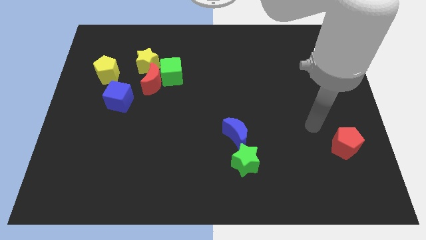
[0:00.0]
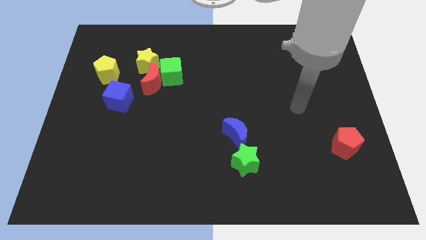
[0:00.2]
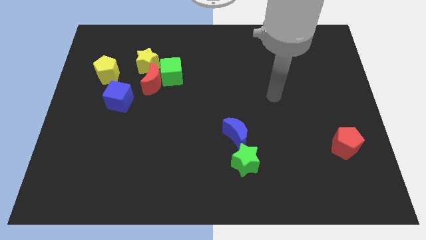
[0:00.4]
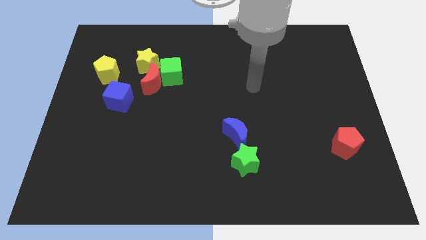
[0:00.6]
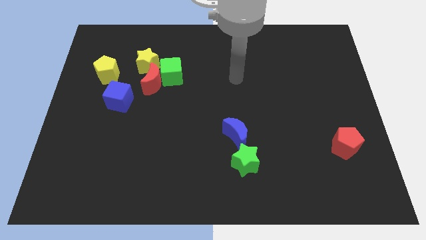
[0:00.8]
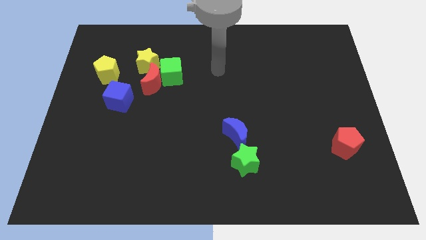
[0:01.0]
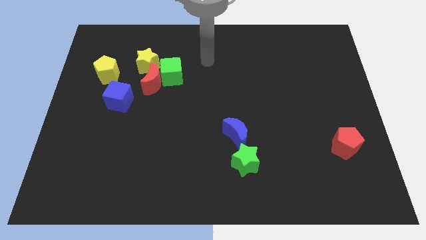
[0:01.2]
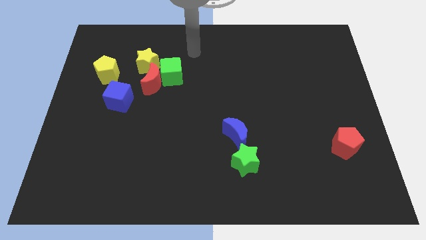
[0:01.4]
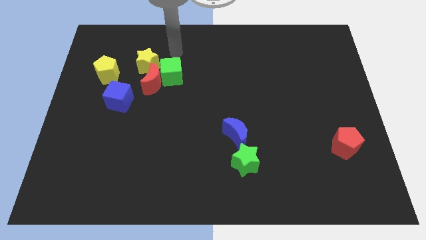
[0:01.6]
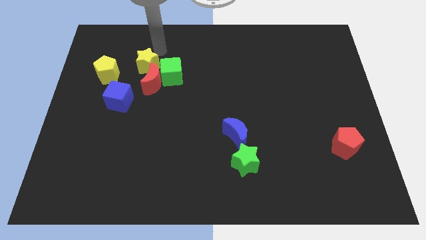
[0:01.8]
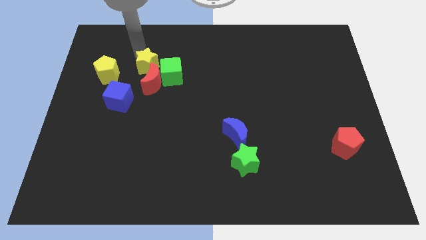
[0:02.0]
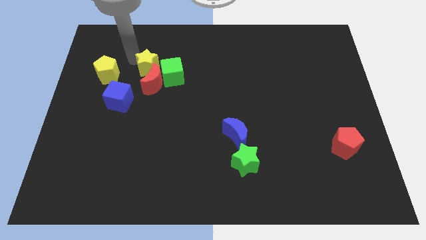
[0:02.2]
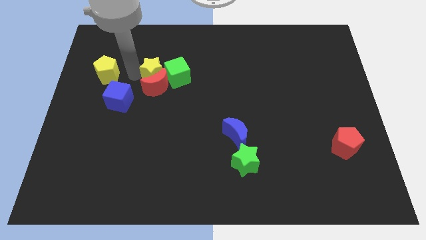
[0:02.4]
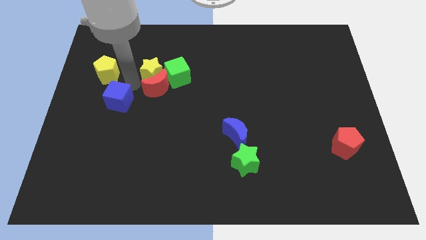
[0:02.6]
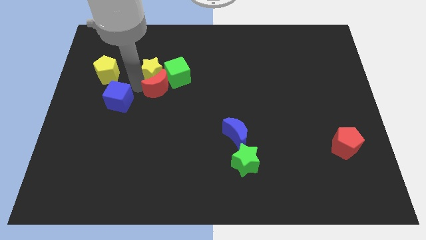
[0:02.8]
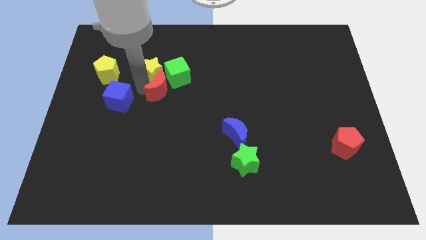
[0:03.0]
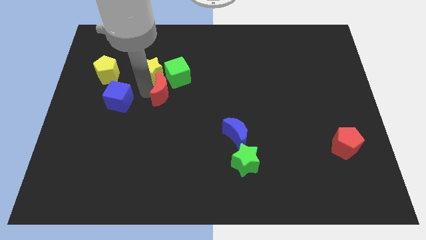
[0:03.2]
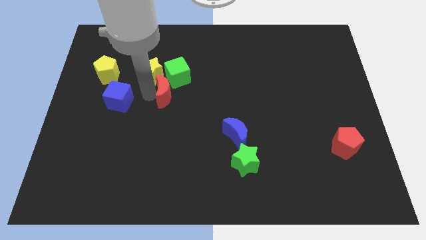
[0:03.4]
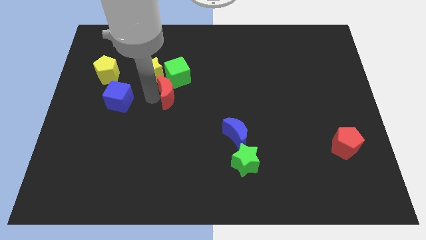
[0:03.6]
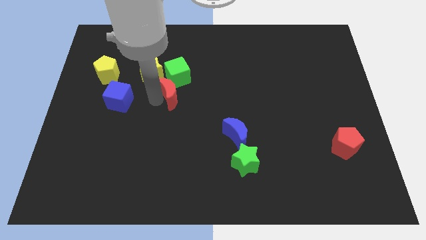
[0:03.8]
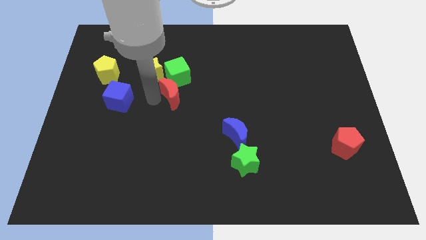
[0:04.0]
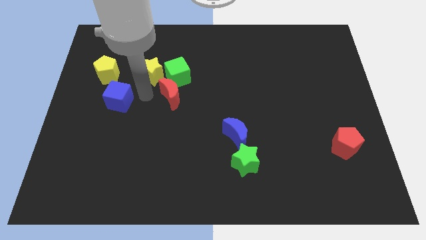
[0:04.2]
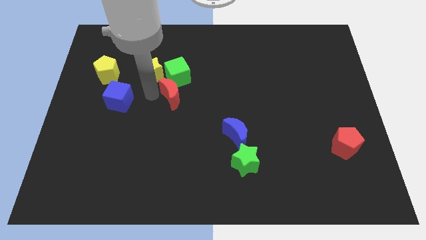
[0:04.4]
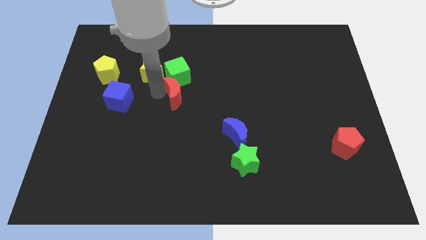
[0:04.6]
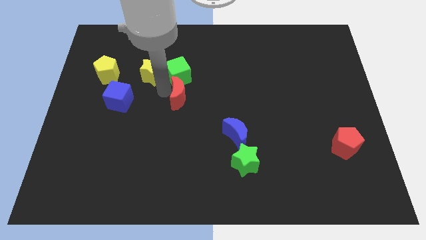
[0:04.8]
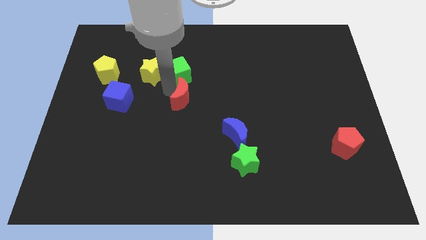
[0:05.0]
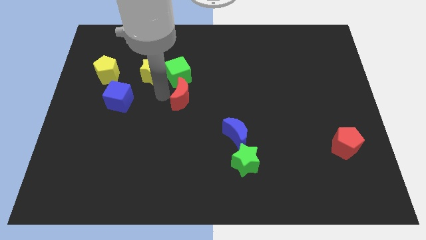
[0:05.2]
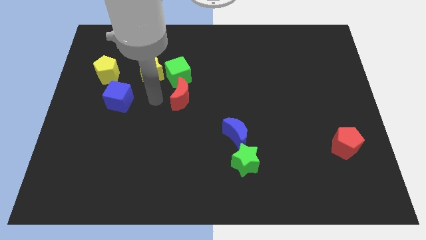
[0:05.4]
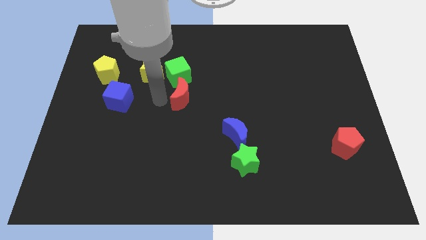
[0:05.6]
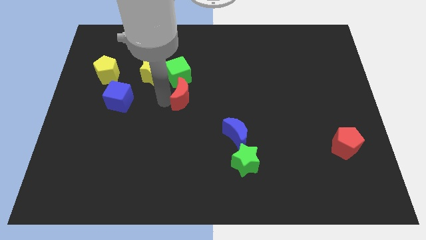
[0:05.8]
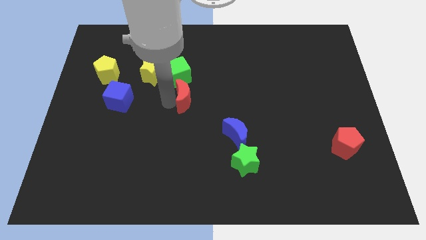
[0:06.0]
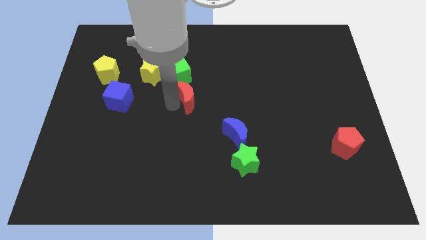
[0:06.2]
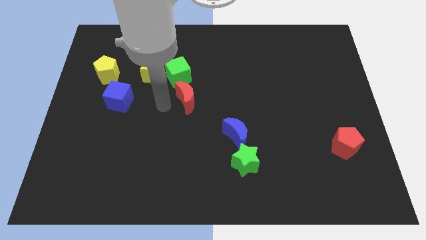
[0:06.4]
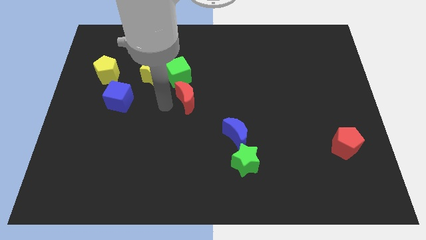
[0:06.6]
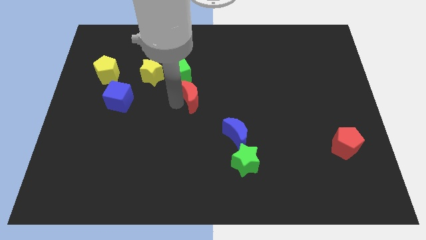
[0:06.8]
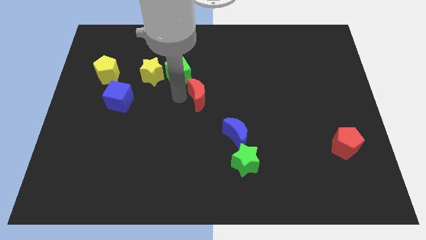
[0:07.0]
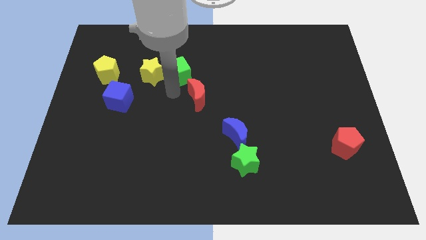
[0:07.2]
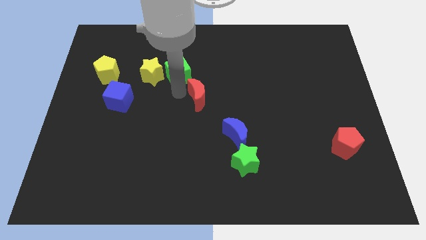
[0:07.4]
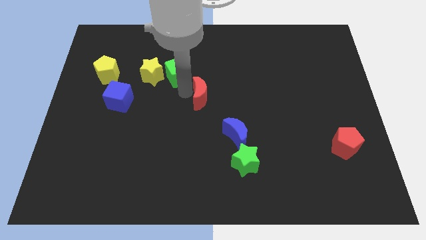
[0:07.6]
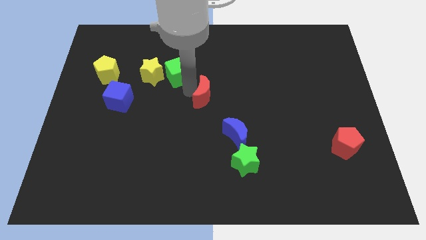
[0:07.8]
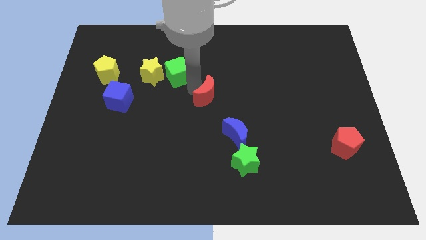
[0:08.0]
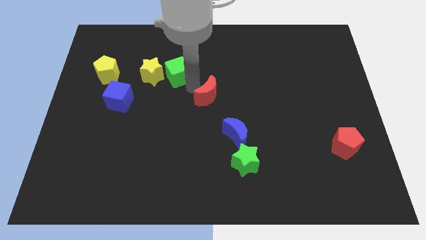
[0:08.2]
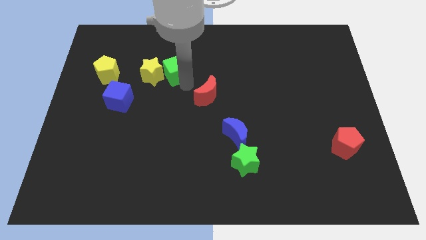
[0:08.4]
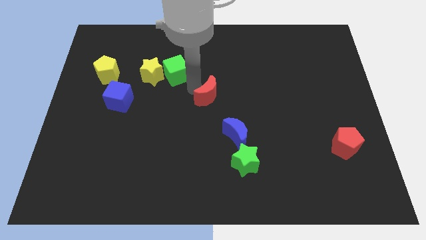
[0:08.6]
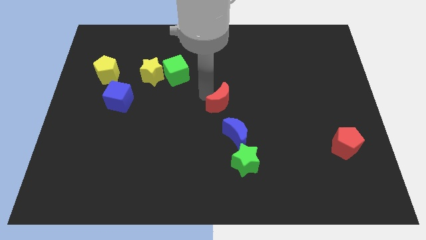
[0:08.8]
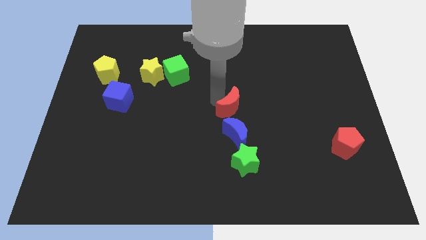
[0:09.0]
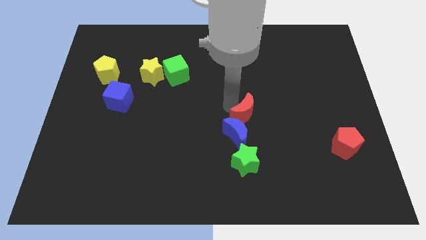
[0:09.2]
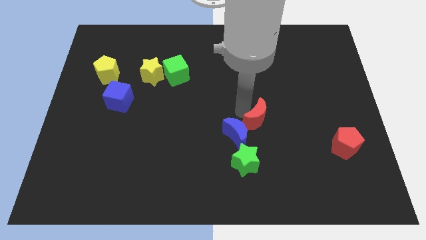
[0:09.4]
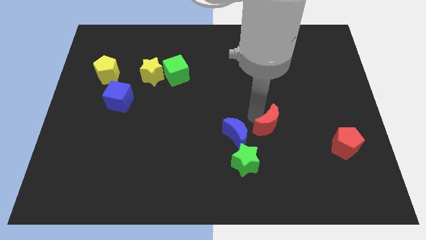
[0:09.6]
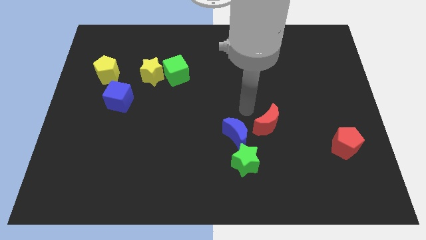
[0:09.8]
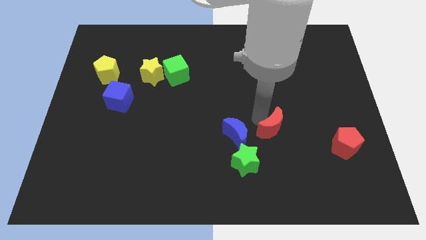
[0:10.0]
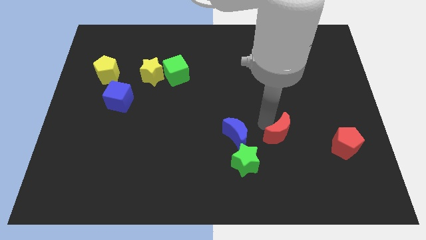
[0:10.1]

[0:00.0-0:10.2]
put the red moon to the left of the red pentagon

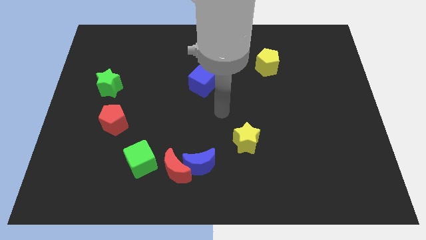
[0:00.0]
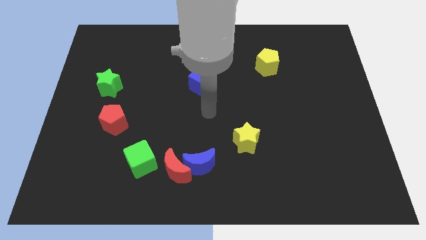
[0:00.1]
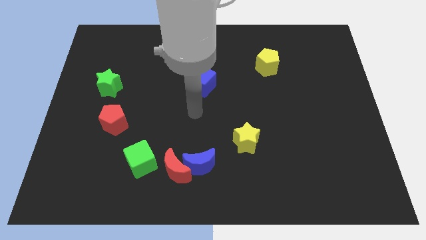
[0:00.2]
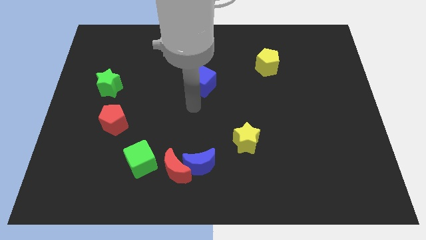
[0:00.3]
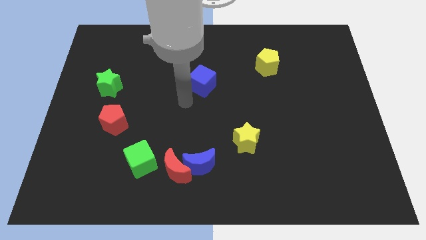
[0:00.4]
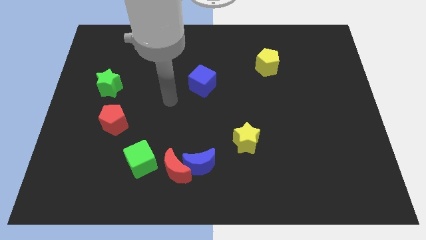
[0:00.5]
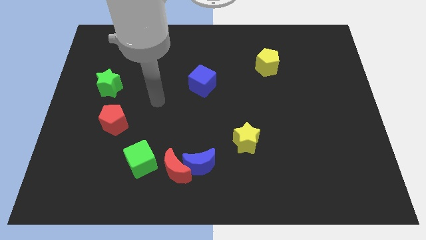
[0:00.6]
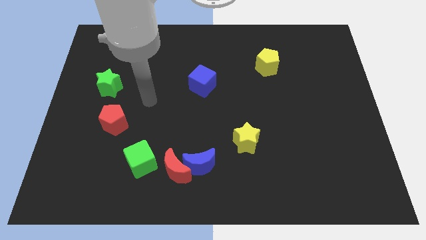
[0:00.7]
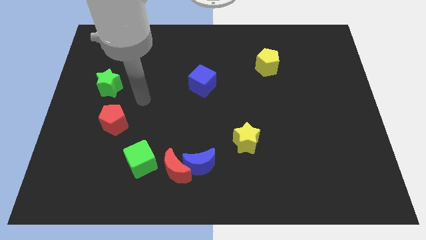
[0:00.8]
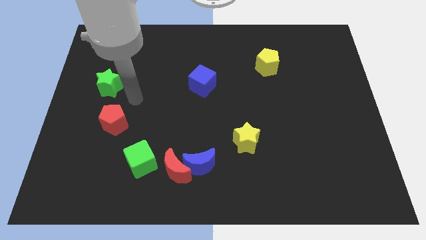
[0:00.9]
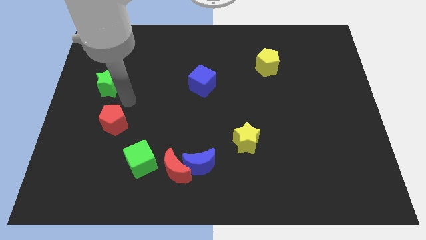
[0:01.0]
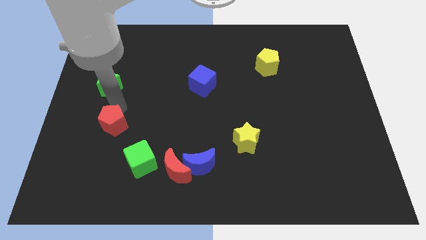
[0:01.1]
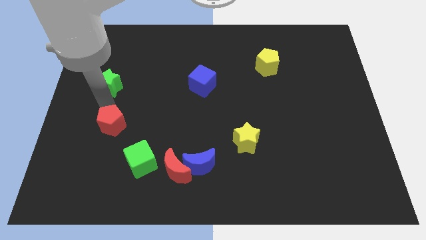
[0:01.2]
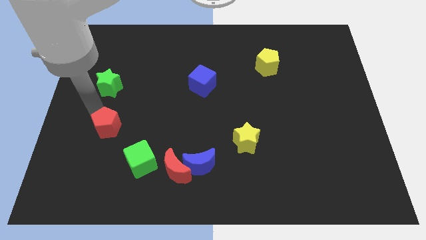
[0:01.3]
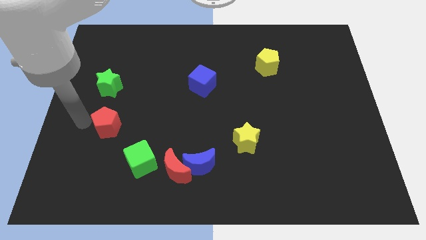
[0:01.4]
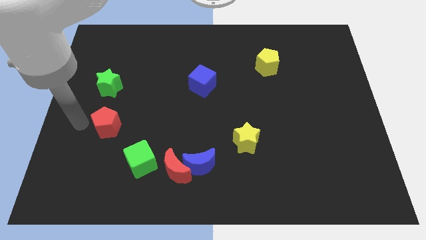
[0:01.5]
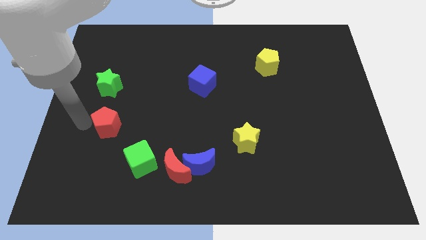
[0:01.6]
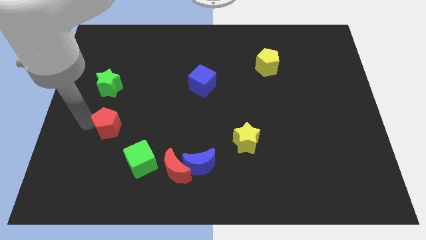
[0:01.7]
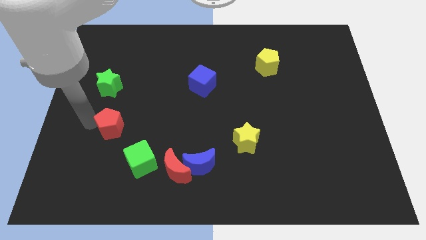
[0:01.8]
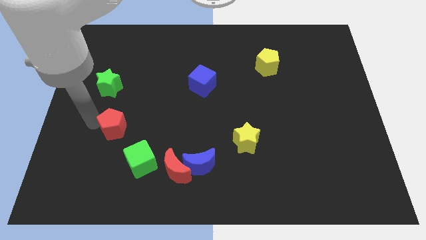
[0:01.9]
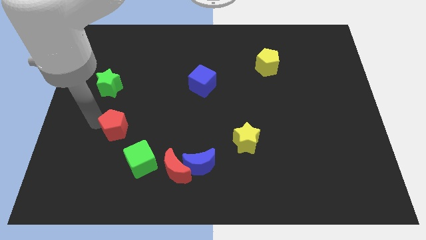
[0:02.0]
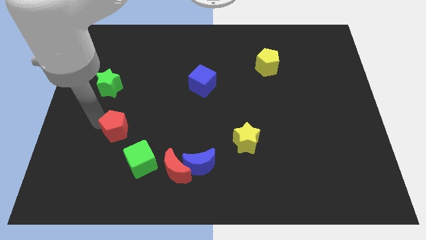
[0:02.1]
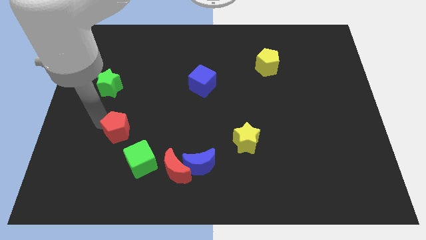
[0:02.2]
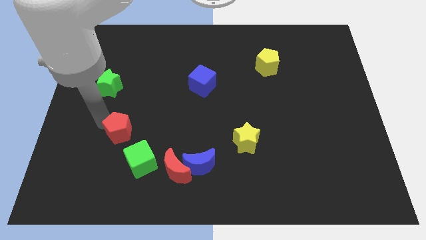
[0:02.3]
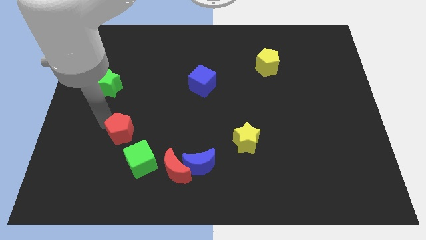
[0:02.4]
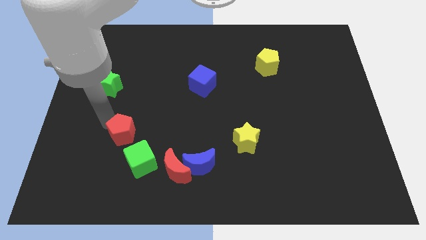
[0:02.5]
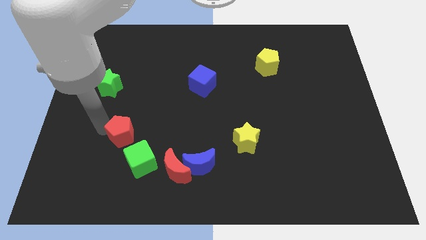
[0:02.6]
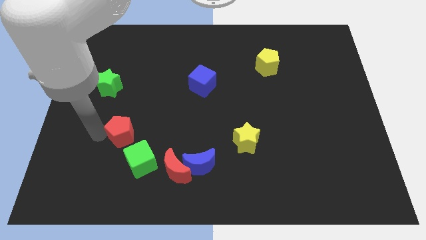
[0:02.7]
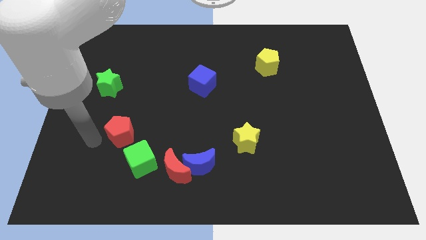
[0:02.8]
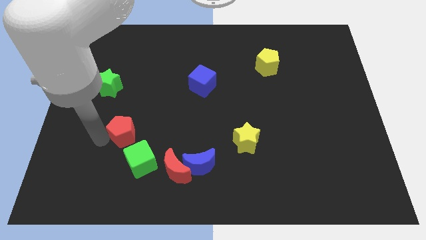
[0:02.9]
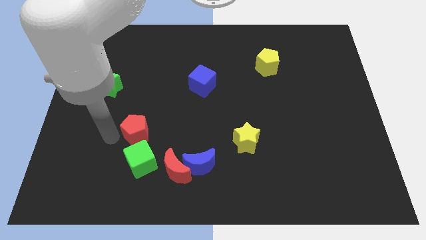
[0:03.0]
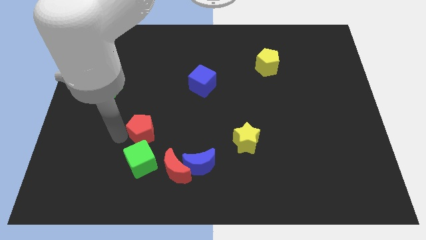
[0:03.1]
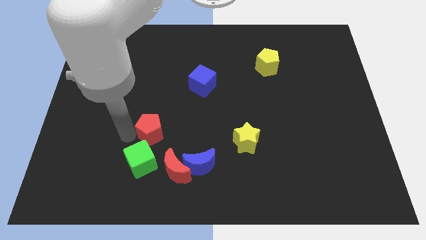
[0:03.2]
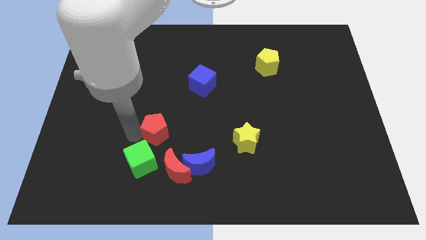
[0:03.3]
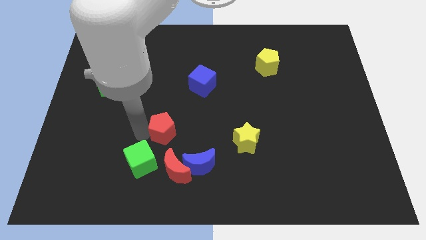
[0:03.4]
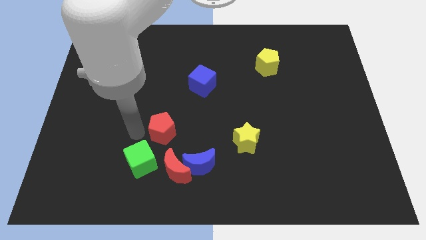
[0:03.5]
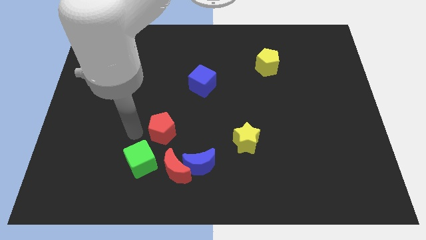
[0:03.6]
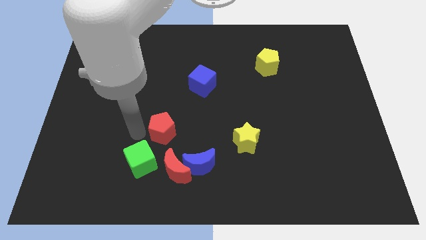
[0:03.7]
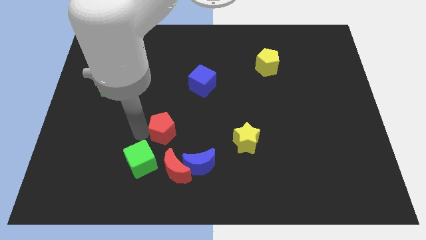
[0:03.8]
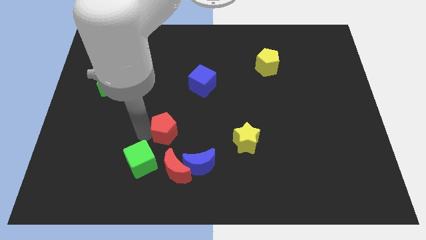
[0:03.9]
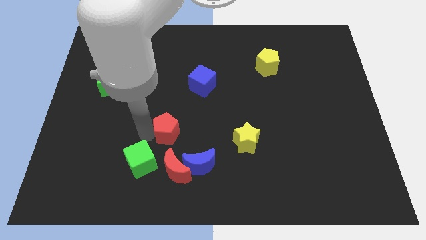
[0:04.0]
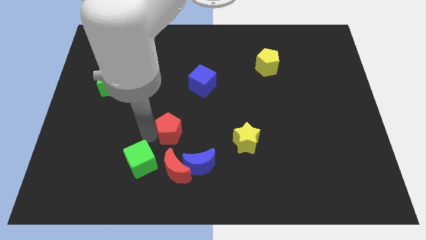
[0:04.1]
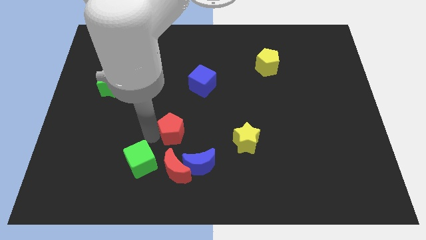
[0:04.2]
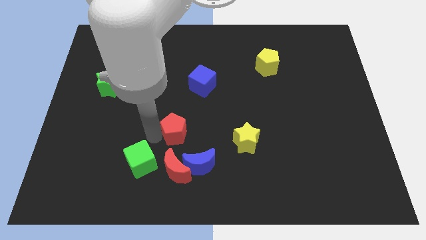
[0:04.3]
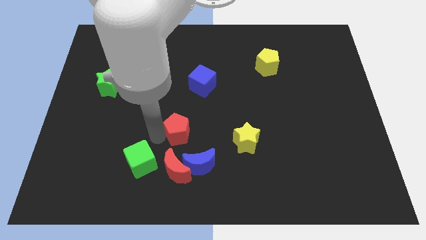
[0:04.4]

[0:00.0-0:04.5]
put the red pentagon to the top side of the blue moon
